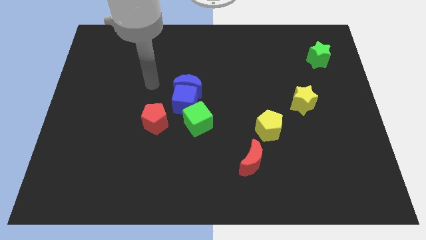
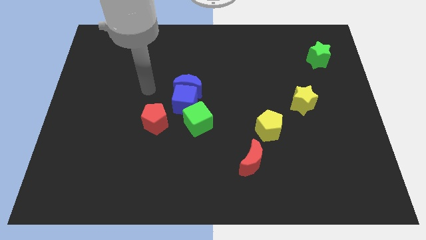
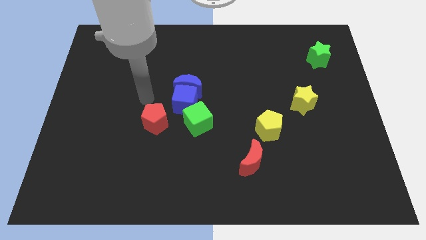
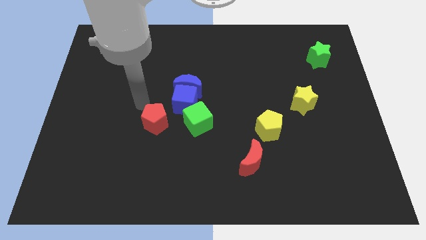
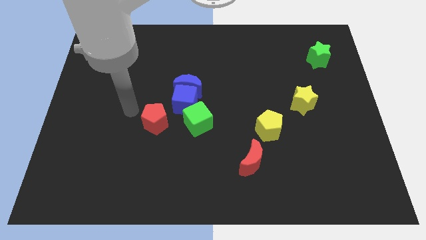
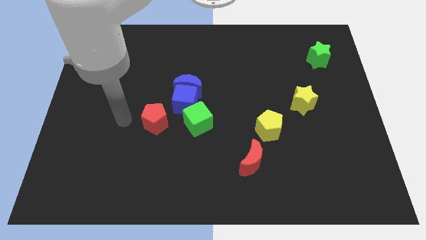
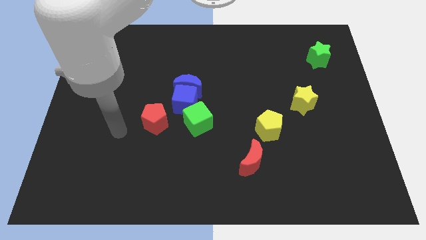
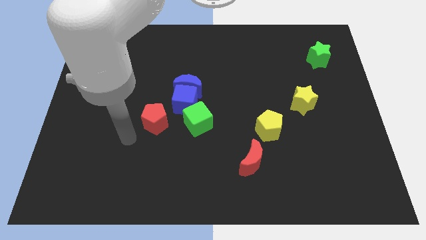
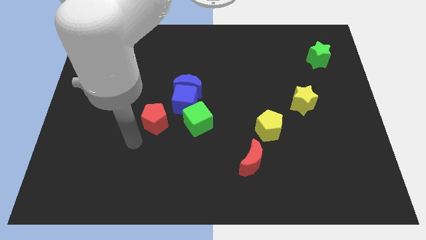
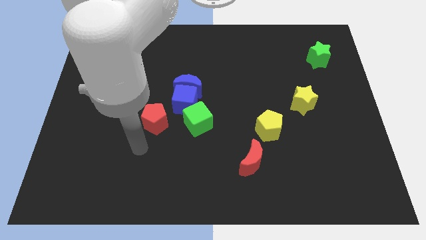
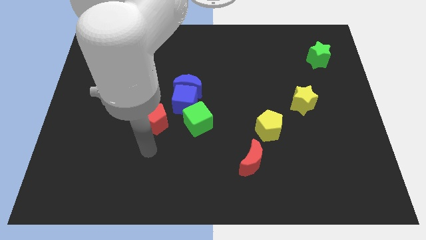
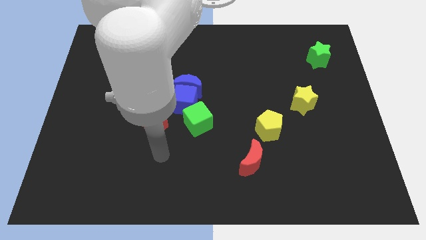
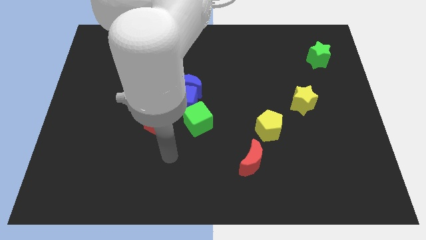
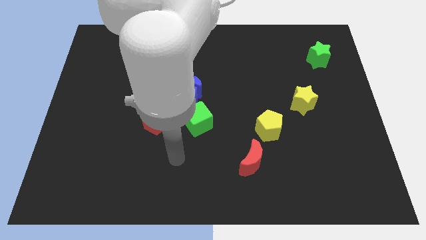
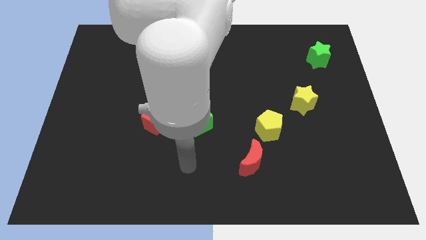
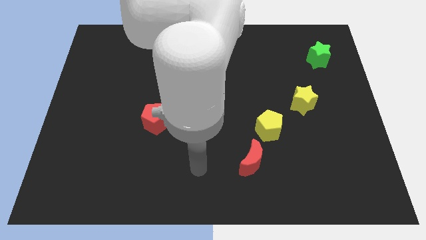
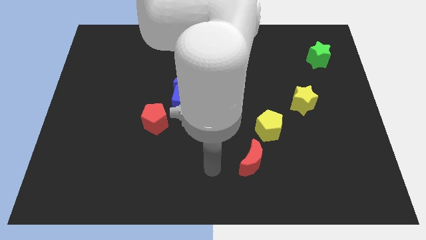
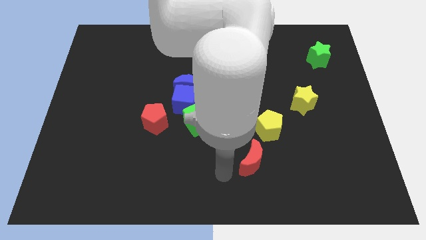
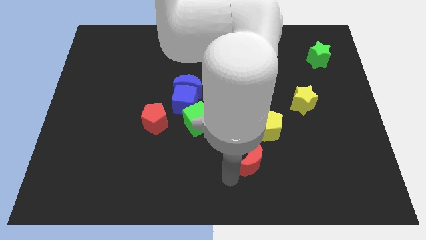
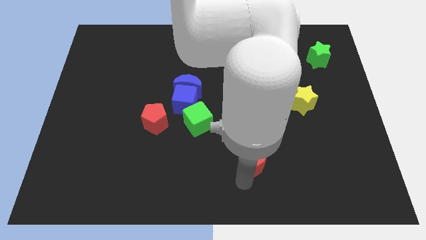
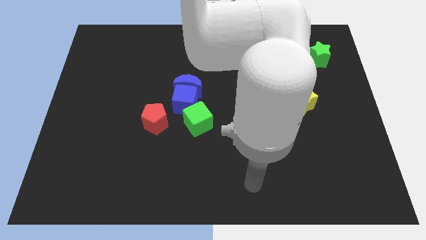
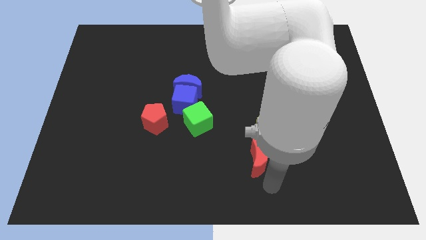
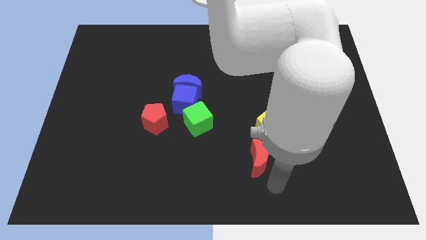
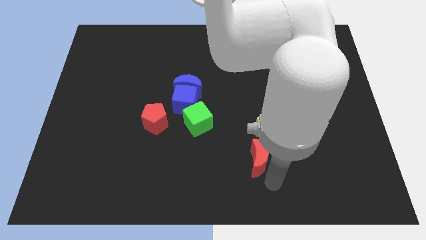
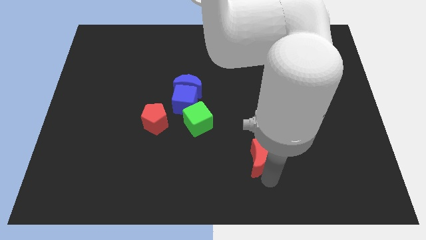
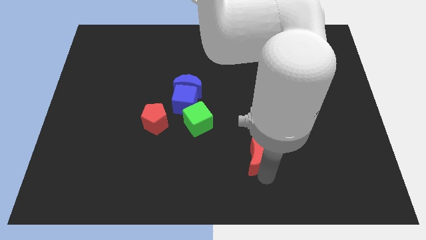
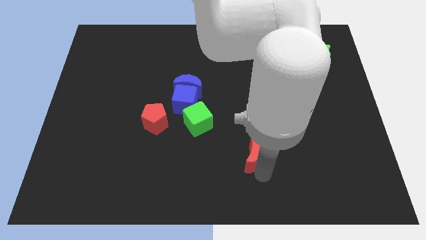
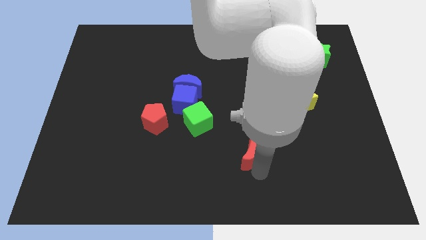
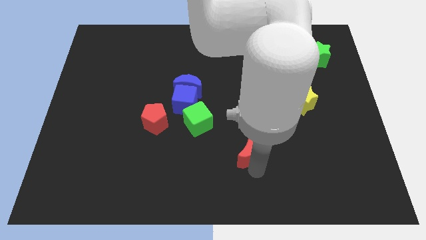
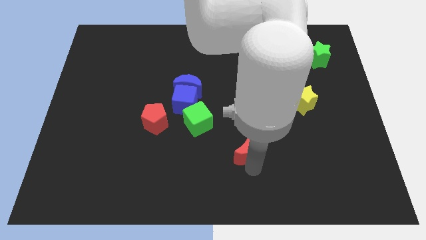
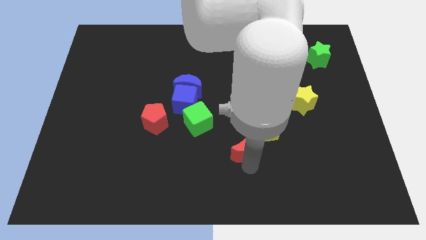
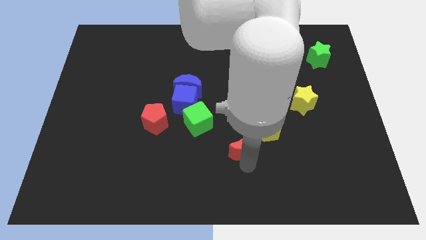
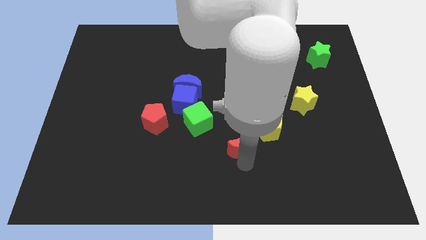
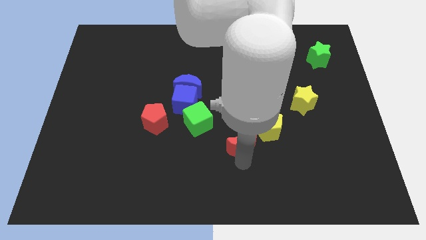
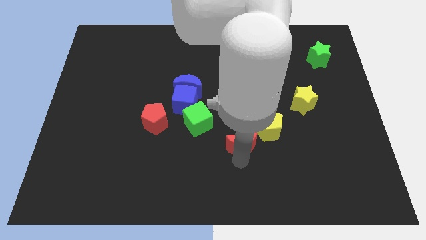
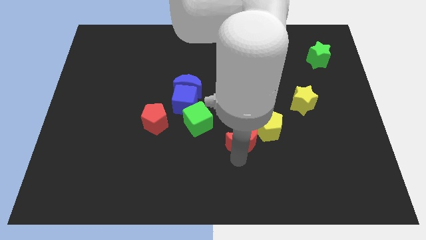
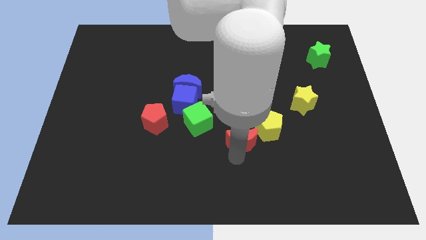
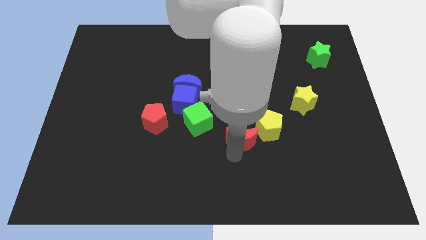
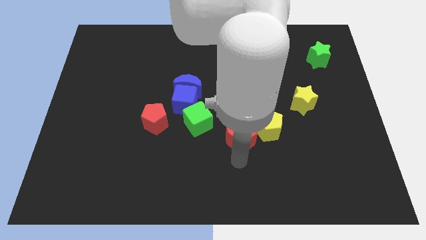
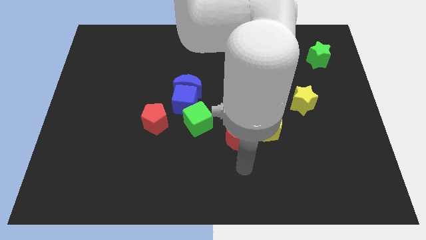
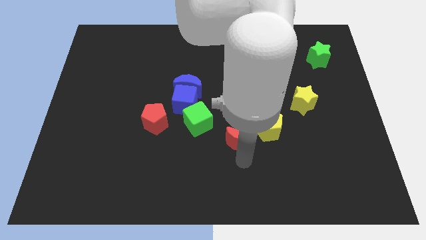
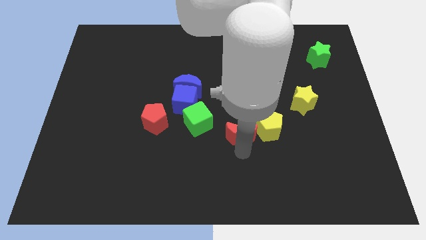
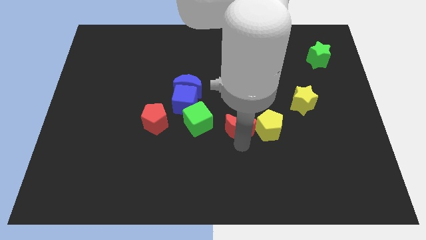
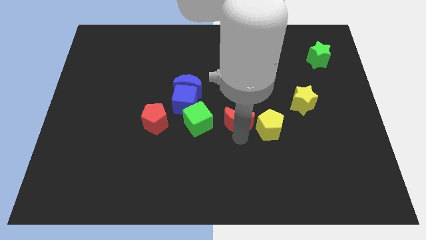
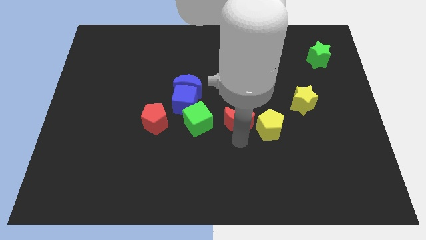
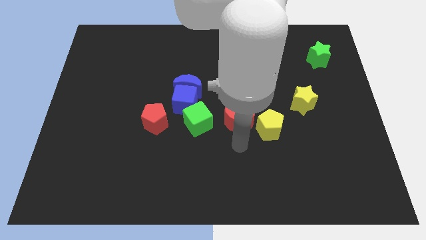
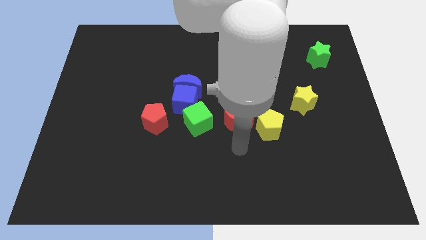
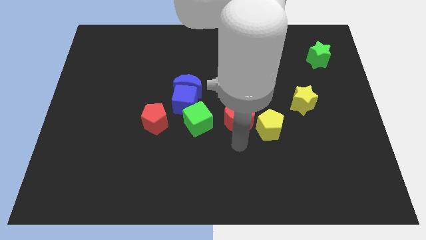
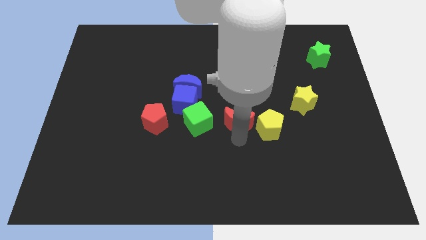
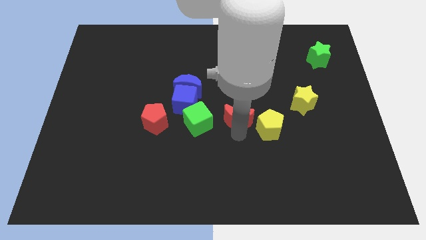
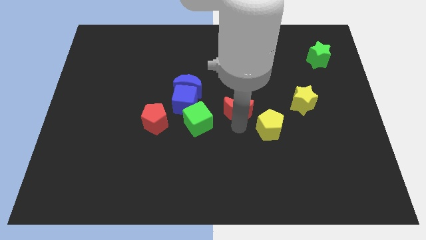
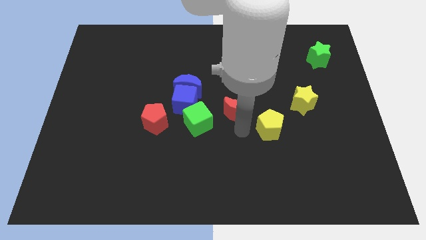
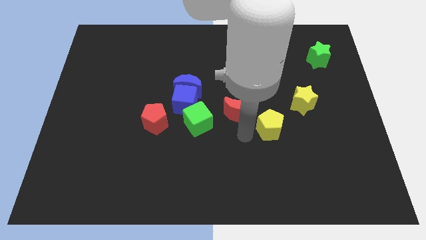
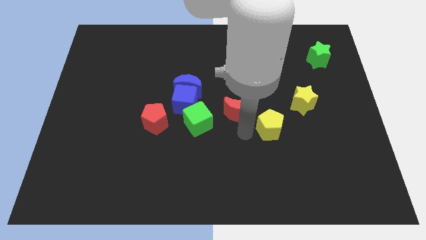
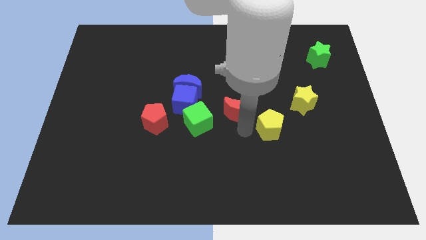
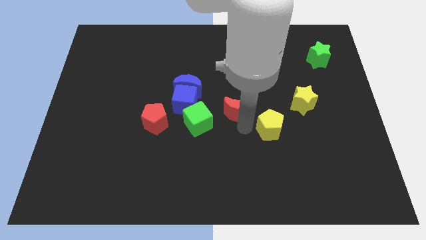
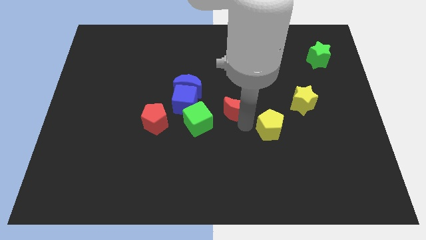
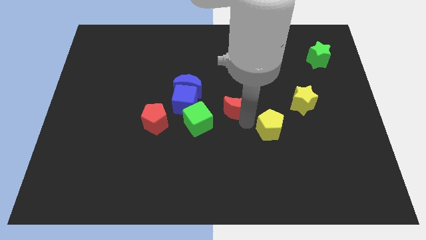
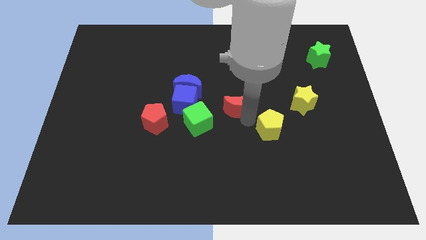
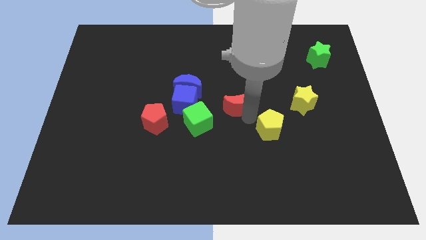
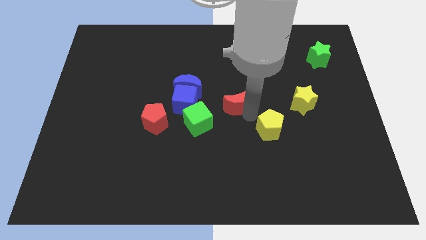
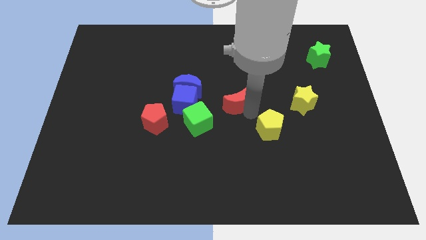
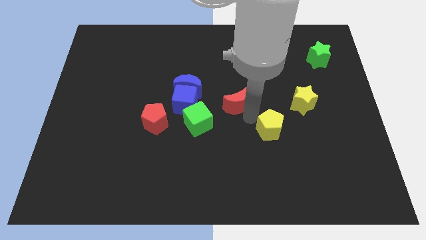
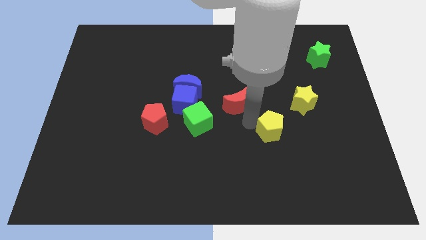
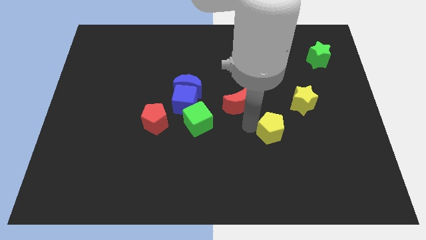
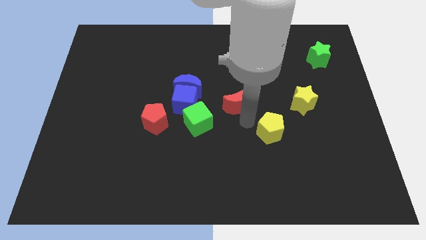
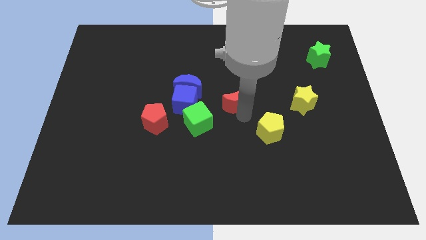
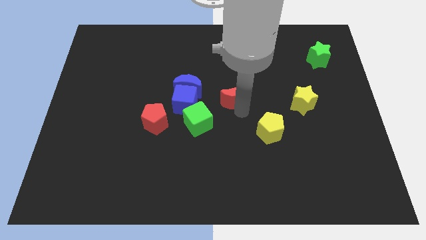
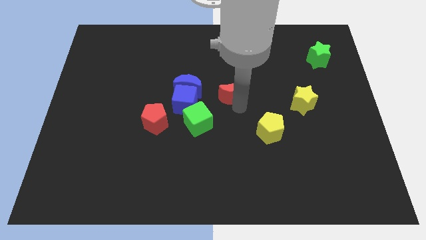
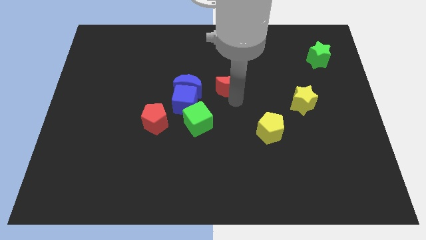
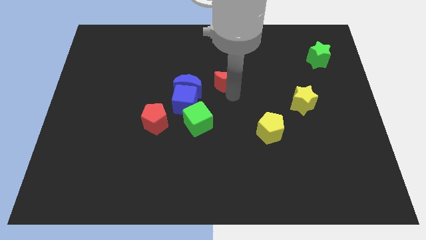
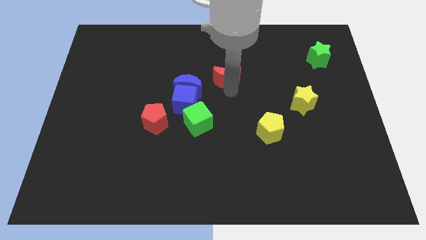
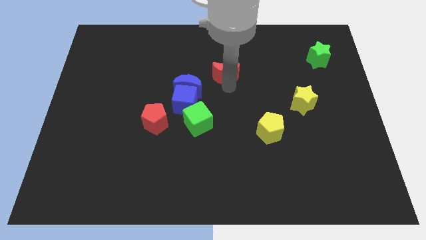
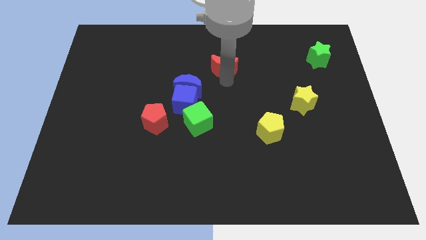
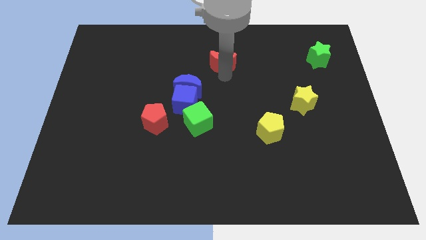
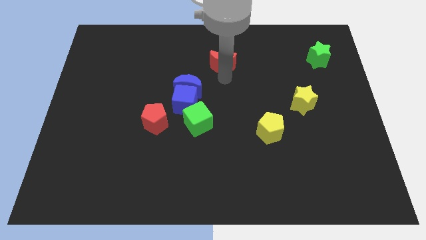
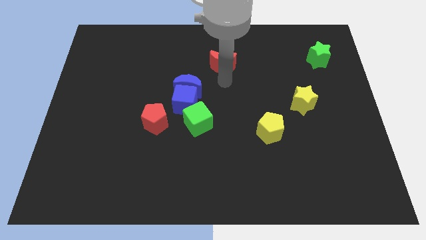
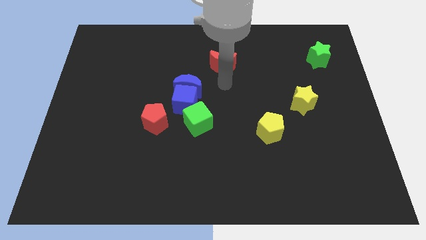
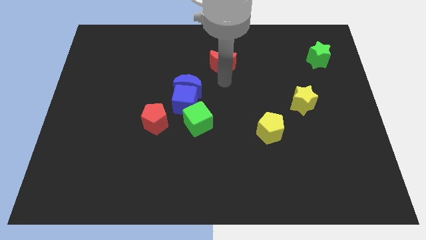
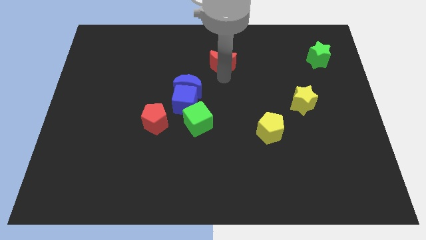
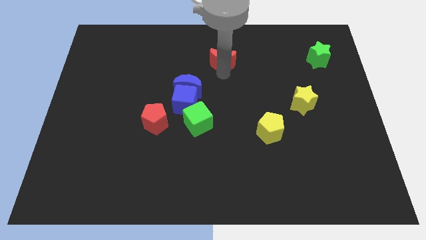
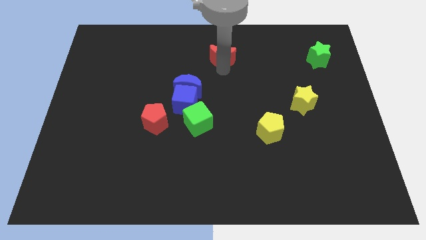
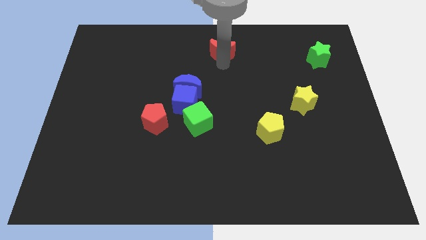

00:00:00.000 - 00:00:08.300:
slide the red moon to the top
